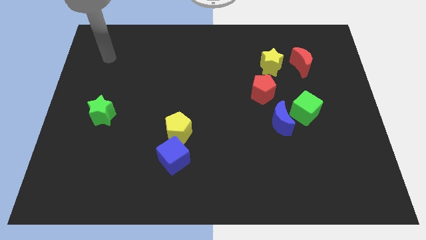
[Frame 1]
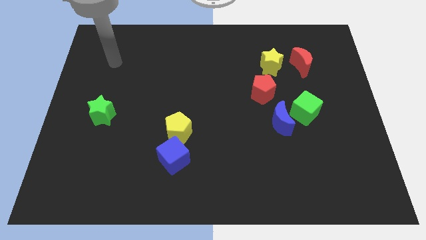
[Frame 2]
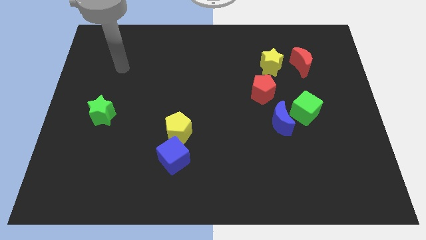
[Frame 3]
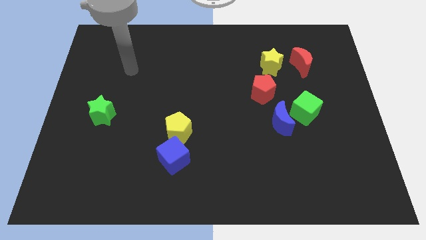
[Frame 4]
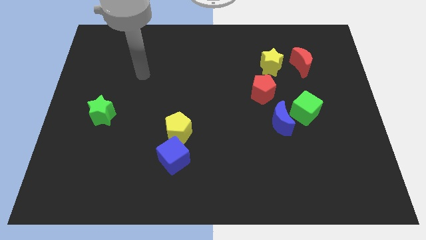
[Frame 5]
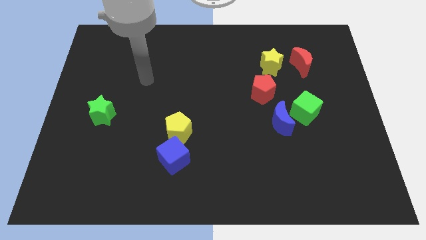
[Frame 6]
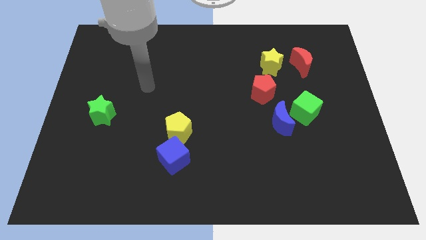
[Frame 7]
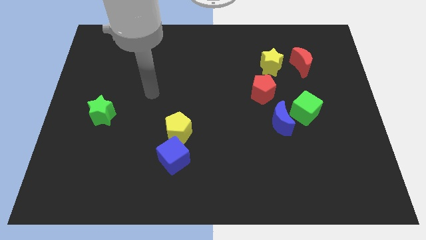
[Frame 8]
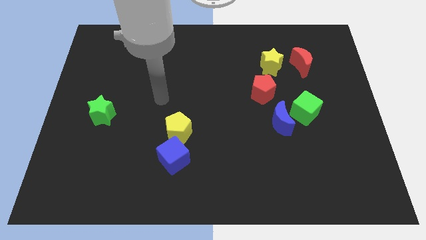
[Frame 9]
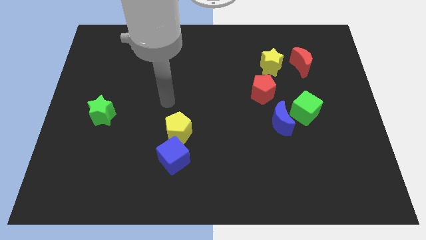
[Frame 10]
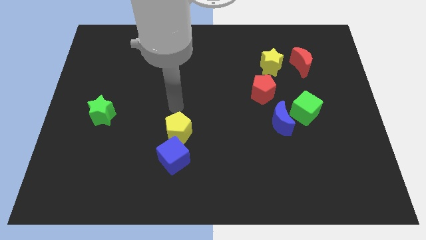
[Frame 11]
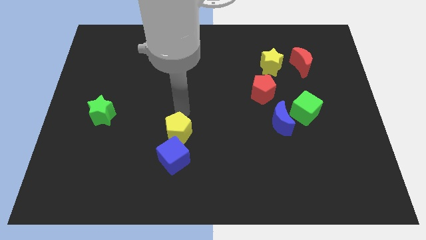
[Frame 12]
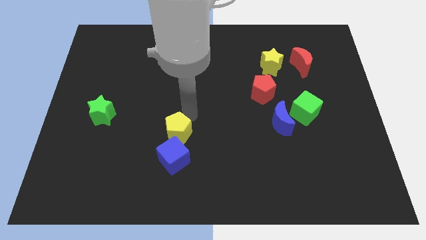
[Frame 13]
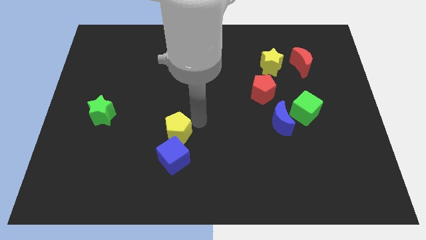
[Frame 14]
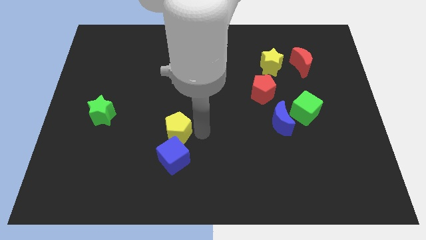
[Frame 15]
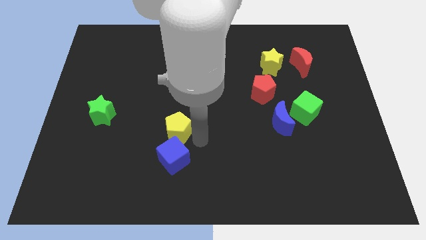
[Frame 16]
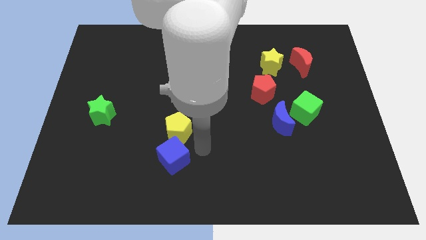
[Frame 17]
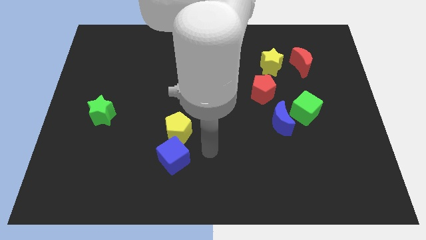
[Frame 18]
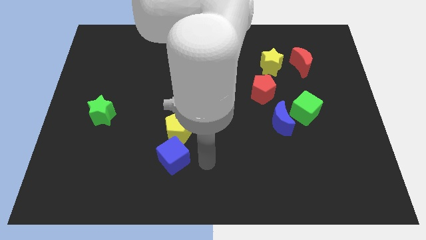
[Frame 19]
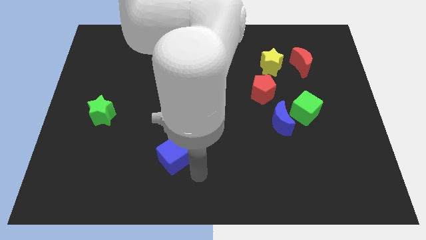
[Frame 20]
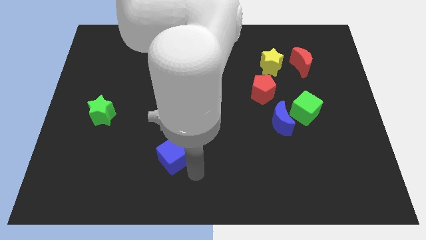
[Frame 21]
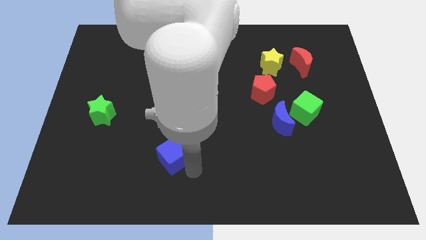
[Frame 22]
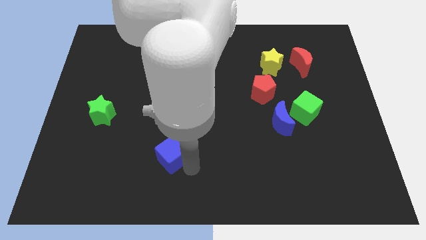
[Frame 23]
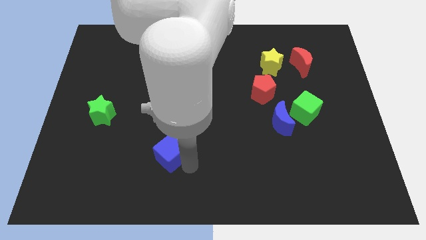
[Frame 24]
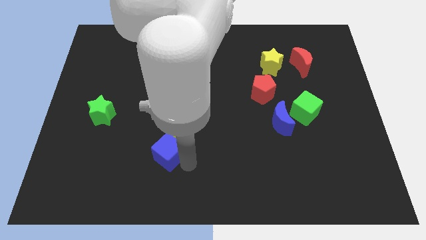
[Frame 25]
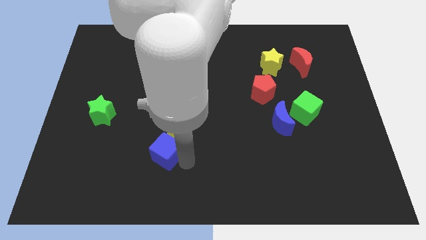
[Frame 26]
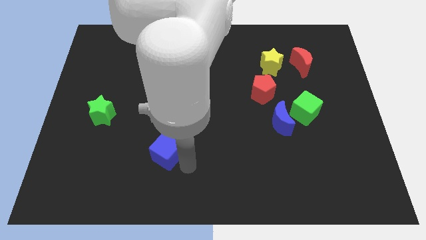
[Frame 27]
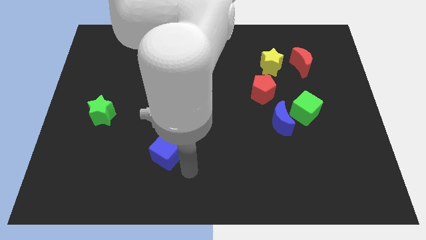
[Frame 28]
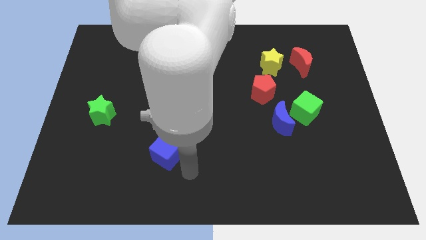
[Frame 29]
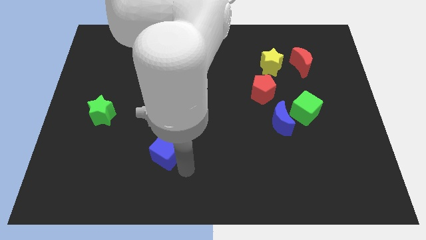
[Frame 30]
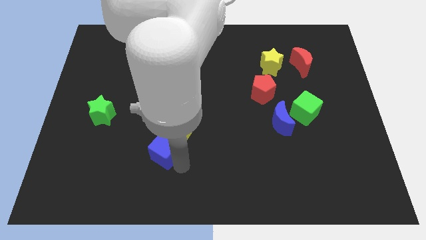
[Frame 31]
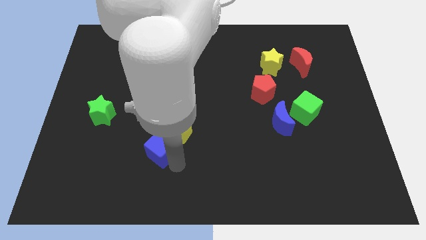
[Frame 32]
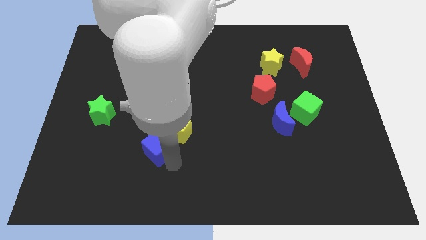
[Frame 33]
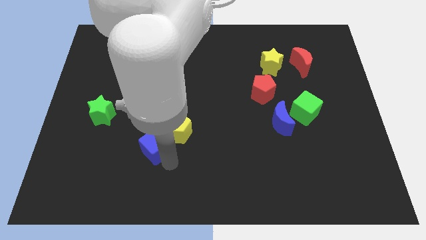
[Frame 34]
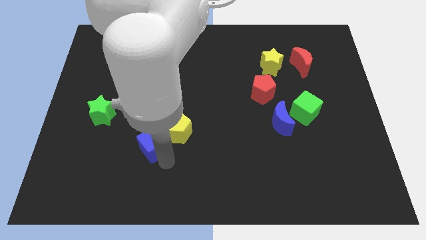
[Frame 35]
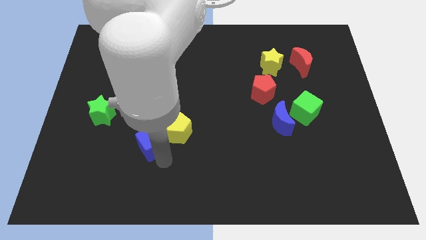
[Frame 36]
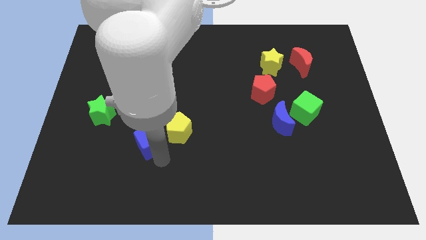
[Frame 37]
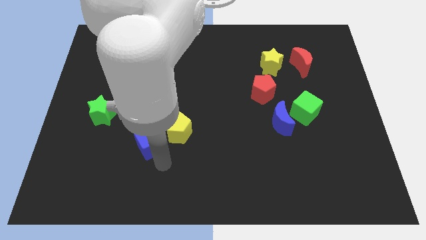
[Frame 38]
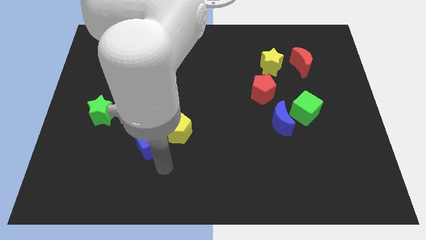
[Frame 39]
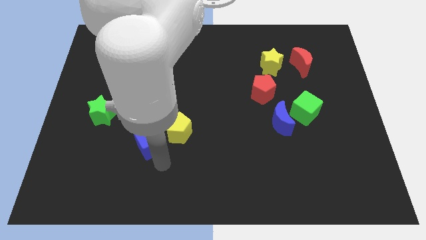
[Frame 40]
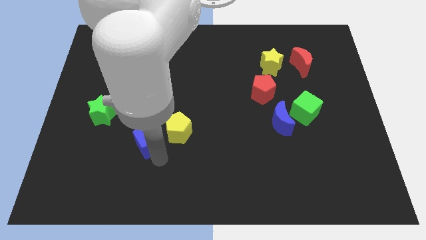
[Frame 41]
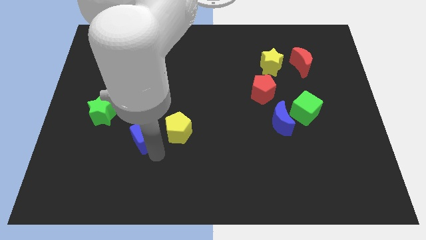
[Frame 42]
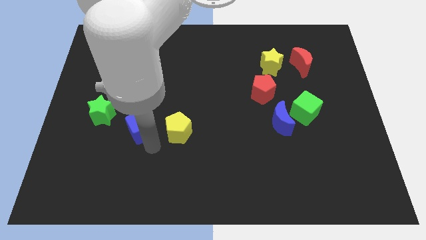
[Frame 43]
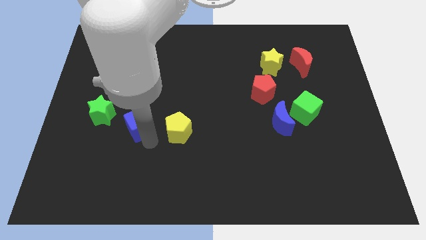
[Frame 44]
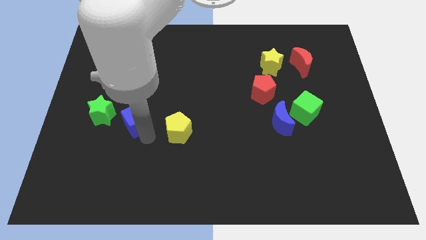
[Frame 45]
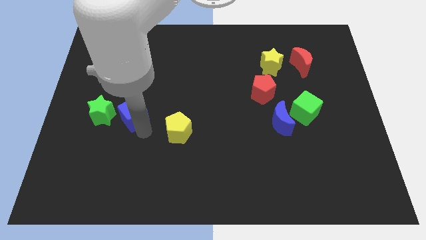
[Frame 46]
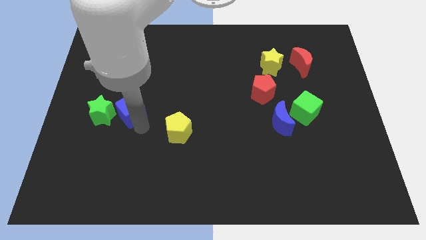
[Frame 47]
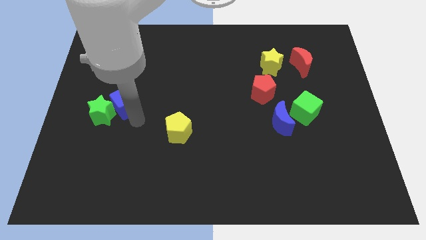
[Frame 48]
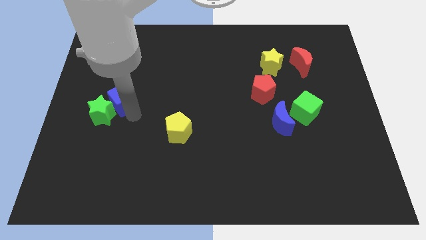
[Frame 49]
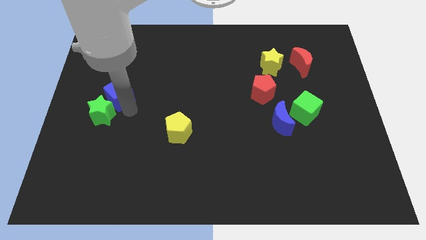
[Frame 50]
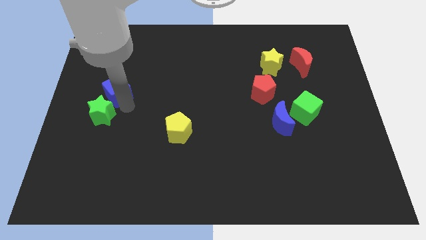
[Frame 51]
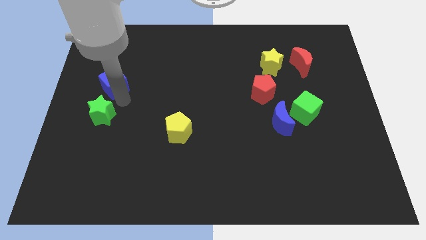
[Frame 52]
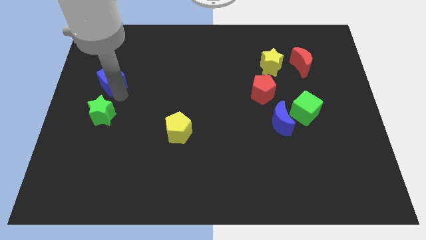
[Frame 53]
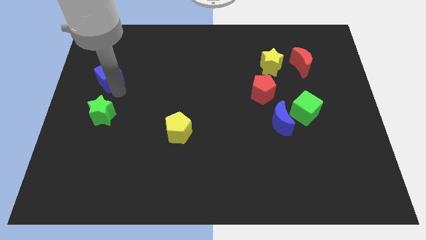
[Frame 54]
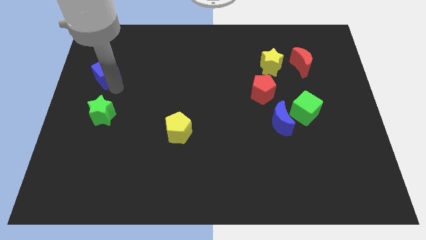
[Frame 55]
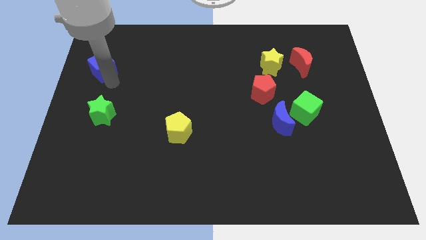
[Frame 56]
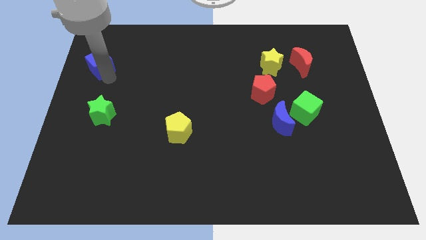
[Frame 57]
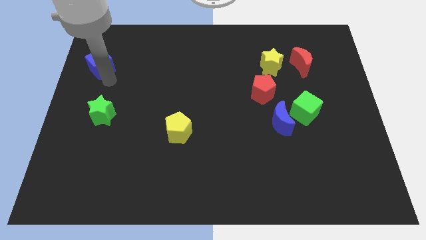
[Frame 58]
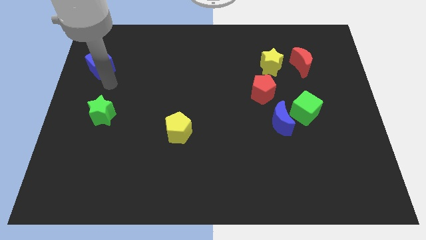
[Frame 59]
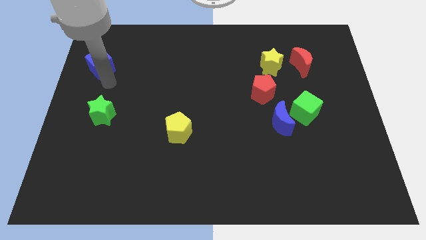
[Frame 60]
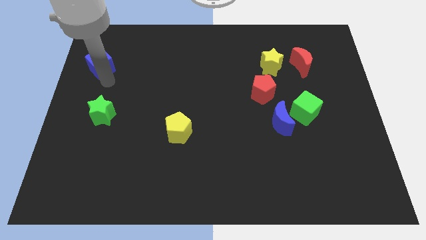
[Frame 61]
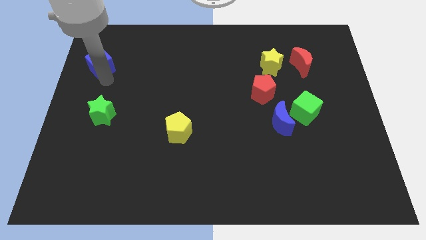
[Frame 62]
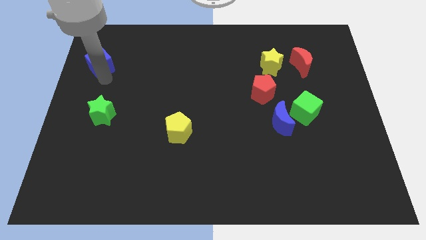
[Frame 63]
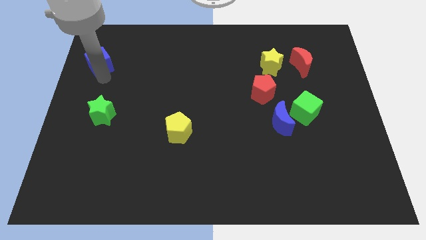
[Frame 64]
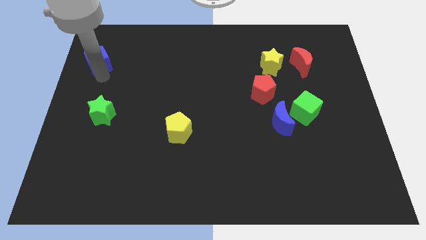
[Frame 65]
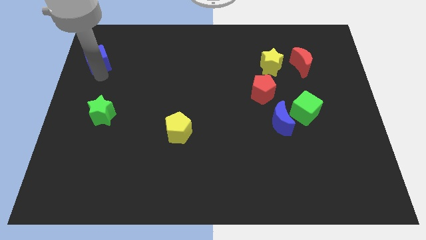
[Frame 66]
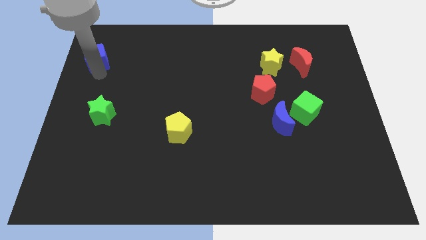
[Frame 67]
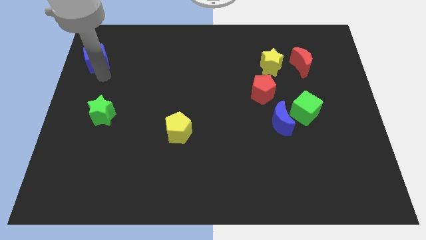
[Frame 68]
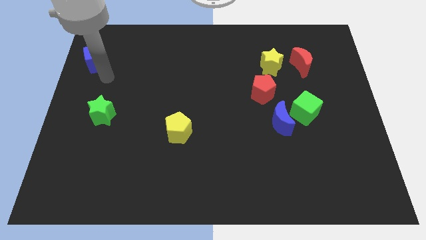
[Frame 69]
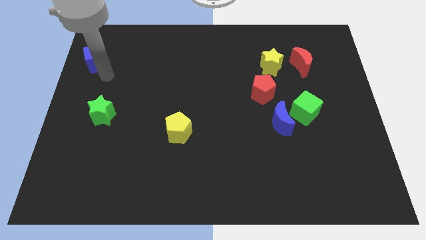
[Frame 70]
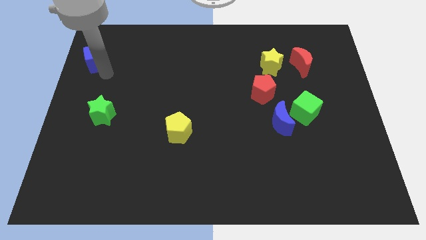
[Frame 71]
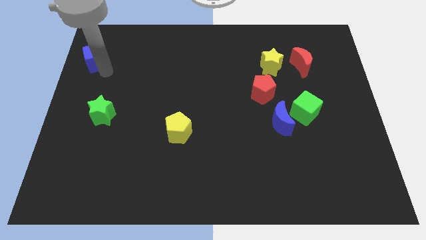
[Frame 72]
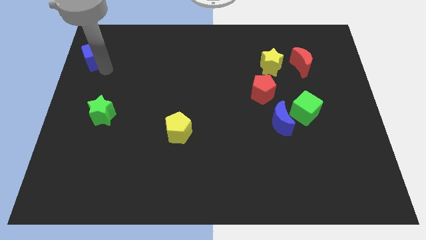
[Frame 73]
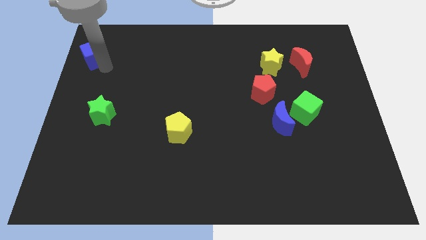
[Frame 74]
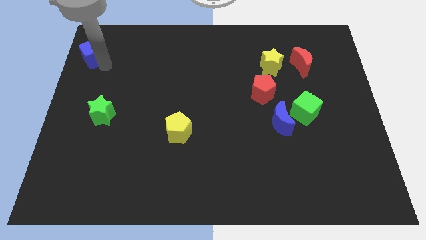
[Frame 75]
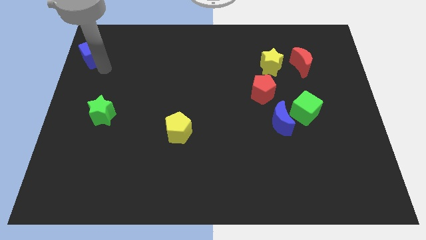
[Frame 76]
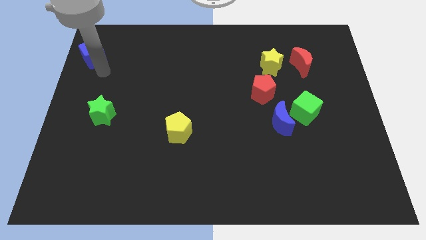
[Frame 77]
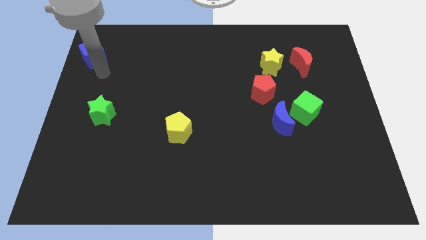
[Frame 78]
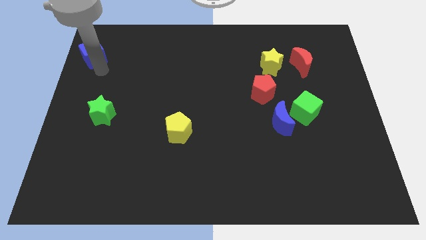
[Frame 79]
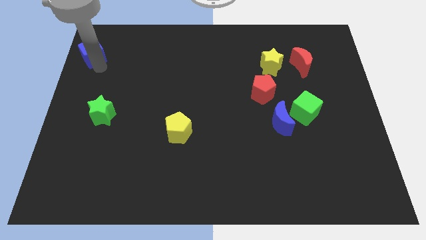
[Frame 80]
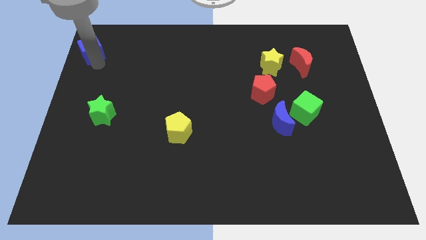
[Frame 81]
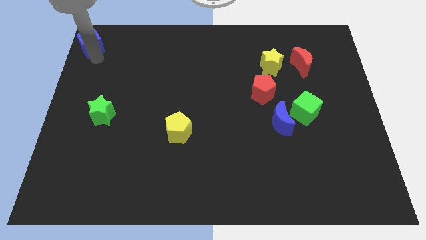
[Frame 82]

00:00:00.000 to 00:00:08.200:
slide the blue cube to the top left
